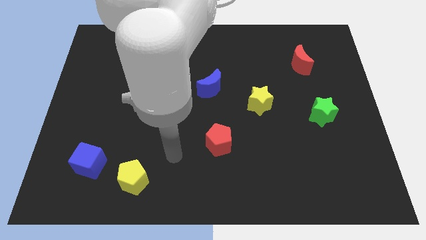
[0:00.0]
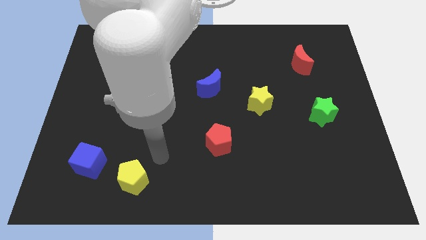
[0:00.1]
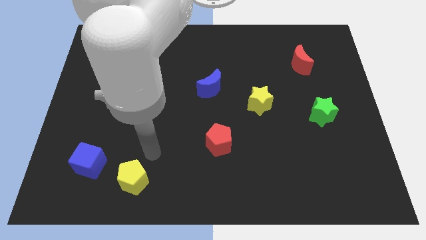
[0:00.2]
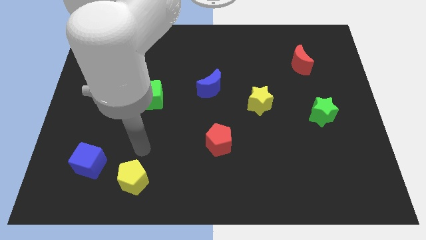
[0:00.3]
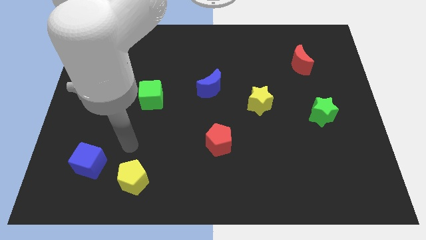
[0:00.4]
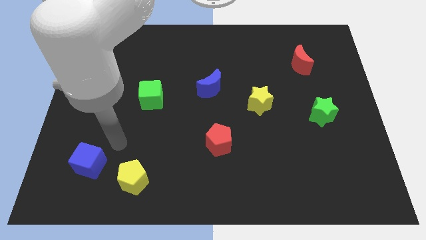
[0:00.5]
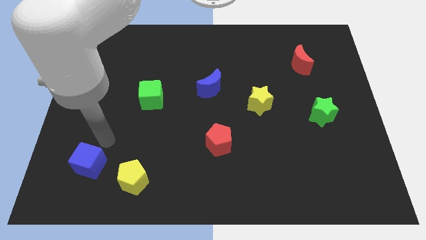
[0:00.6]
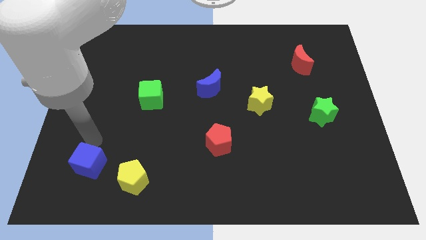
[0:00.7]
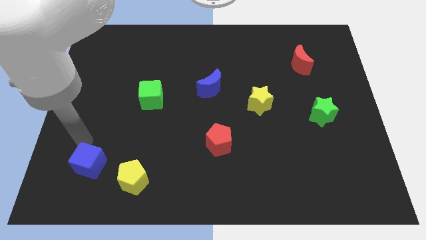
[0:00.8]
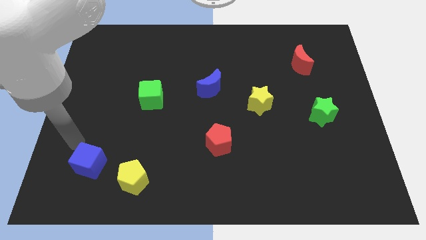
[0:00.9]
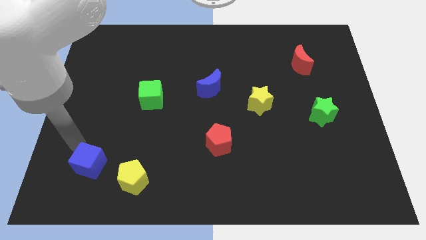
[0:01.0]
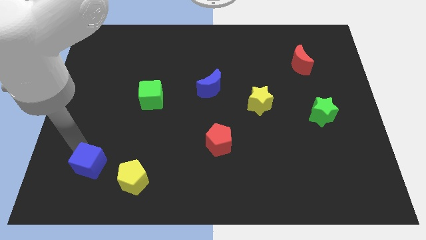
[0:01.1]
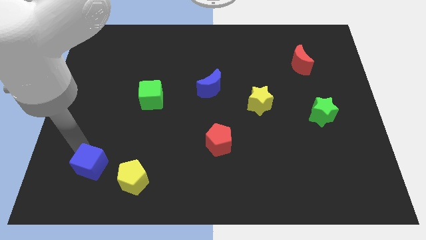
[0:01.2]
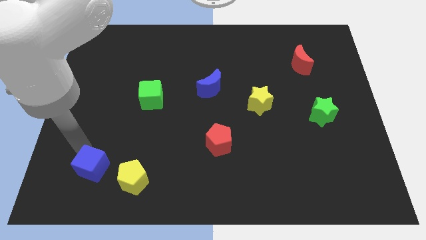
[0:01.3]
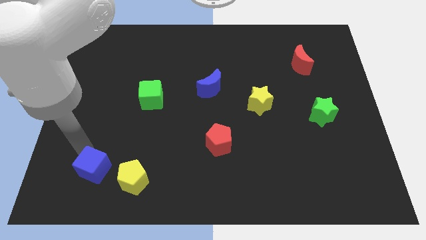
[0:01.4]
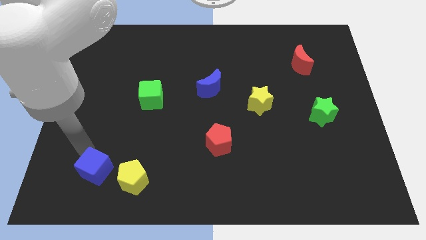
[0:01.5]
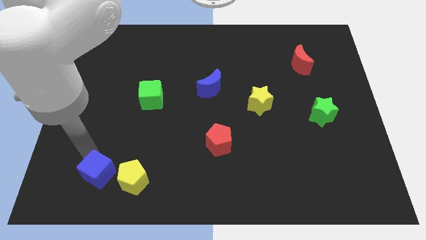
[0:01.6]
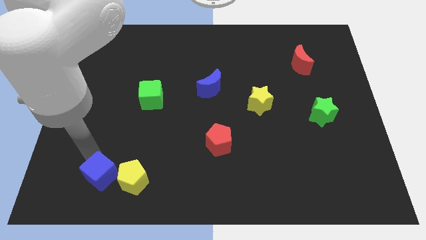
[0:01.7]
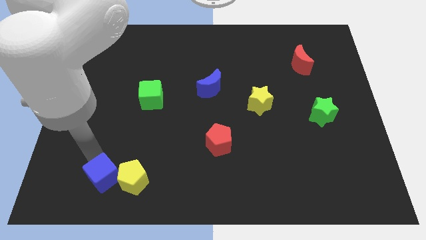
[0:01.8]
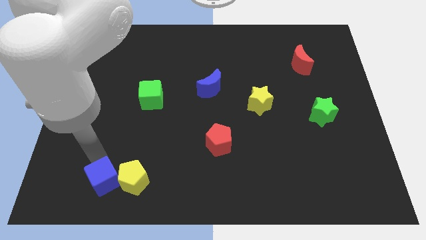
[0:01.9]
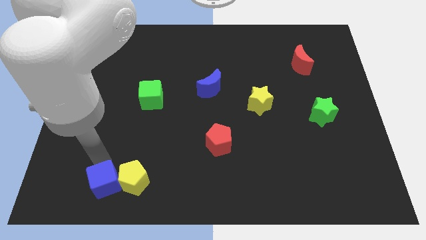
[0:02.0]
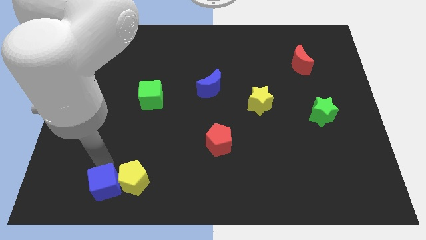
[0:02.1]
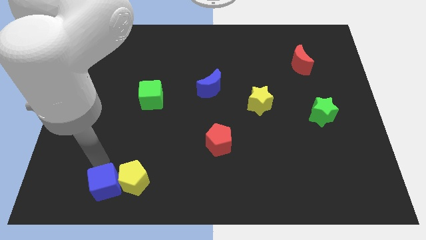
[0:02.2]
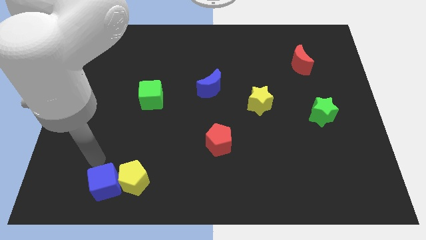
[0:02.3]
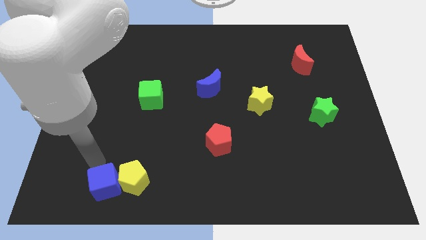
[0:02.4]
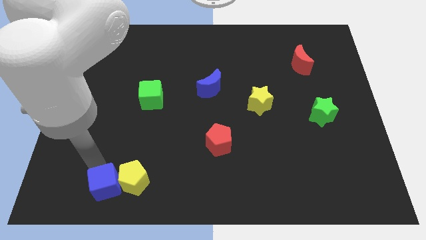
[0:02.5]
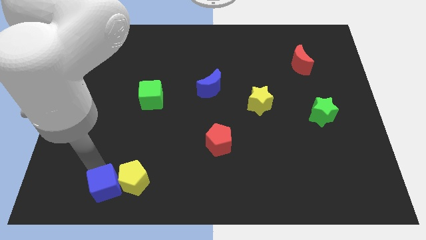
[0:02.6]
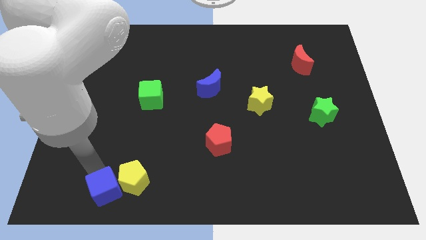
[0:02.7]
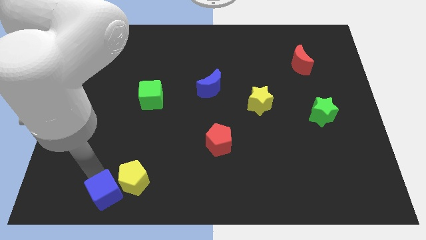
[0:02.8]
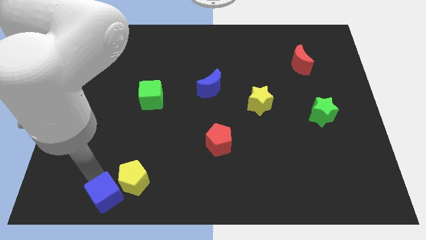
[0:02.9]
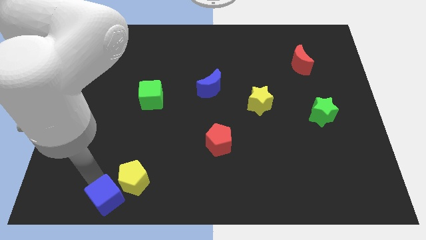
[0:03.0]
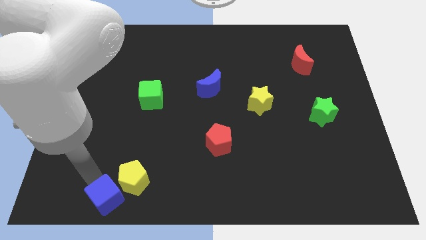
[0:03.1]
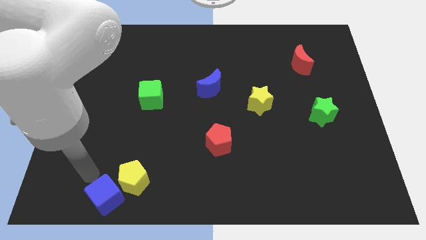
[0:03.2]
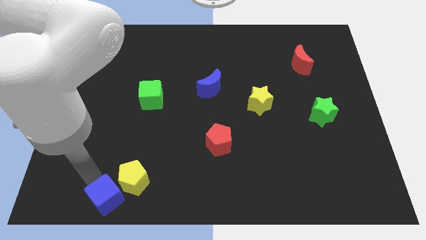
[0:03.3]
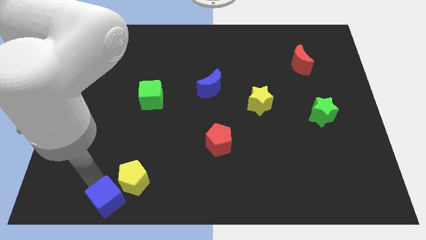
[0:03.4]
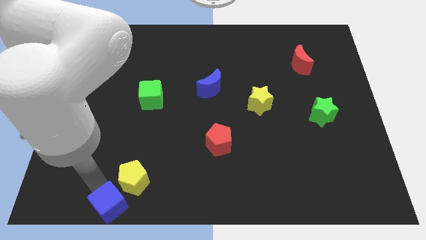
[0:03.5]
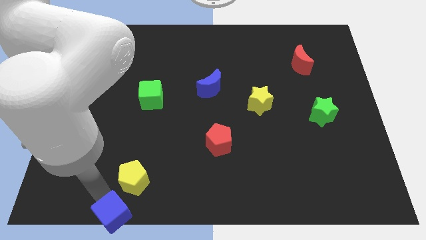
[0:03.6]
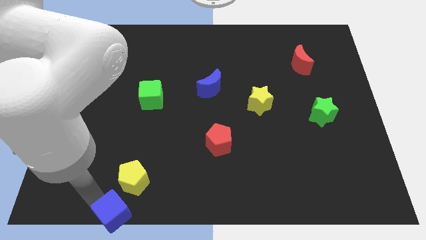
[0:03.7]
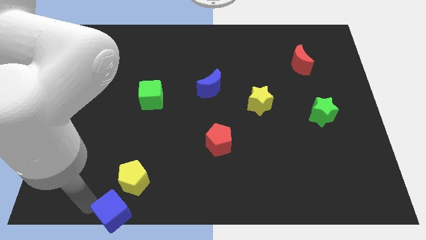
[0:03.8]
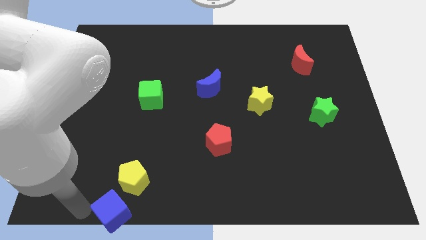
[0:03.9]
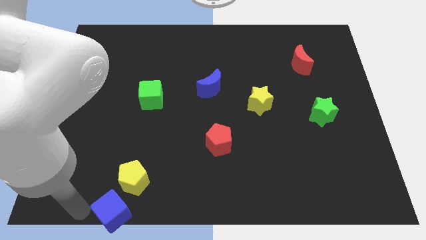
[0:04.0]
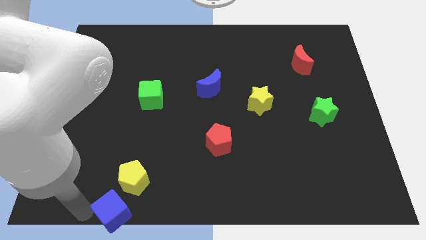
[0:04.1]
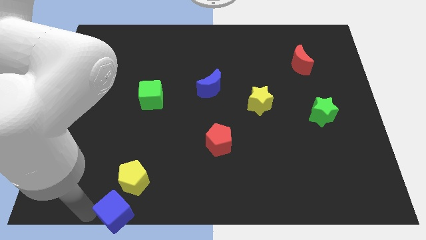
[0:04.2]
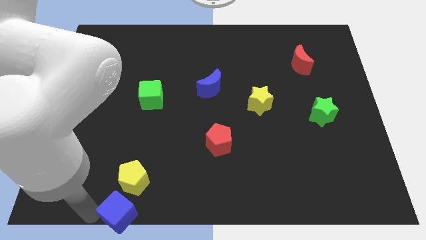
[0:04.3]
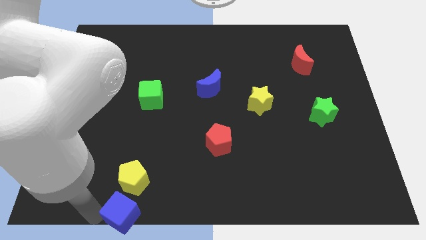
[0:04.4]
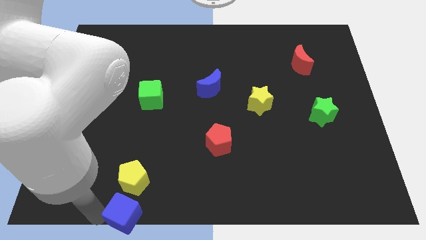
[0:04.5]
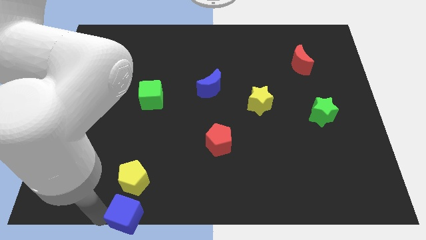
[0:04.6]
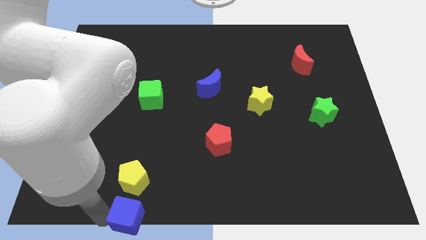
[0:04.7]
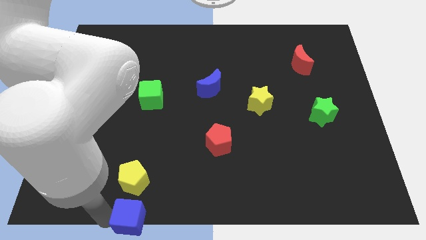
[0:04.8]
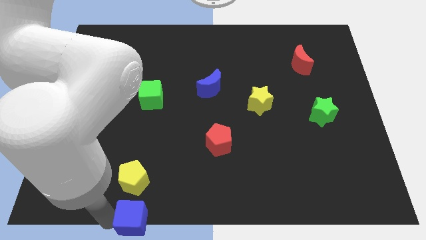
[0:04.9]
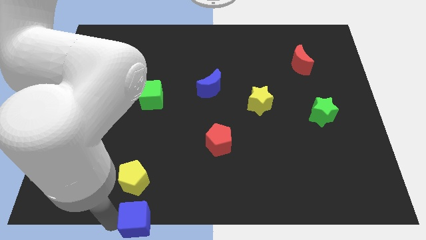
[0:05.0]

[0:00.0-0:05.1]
put the blue cube to the bottom
